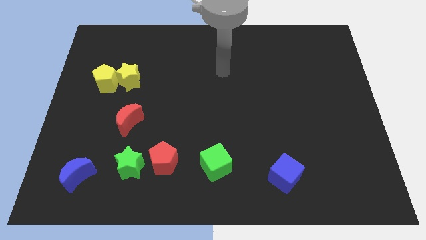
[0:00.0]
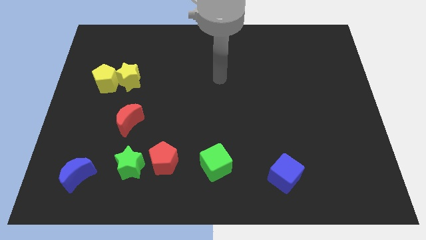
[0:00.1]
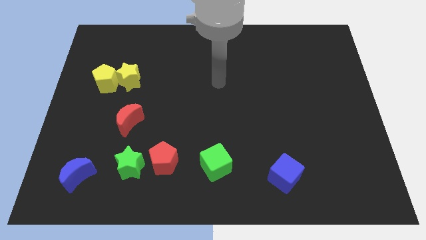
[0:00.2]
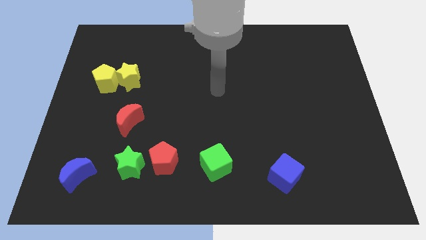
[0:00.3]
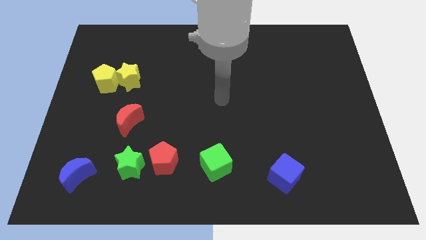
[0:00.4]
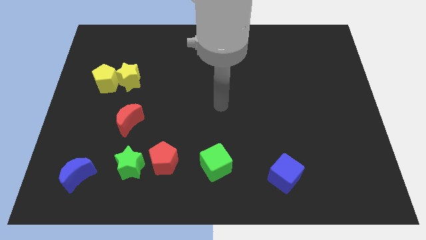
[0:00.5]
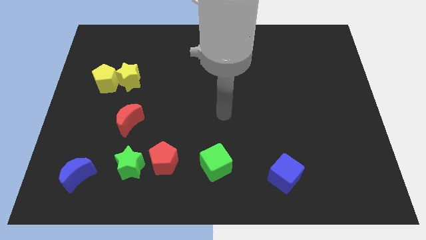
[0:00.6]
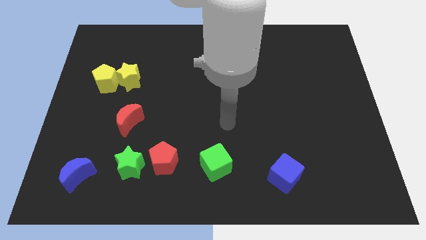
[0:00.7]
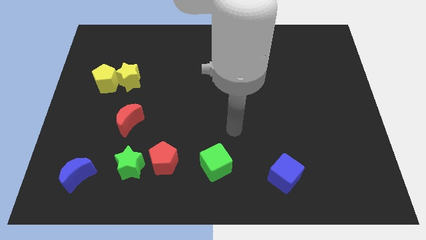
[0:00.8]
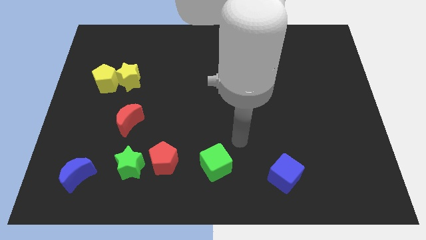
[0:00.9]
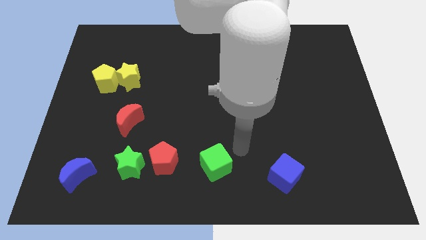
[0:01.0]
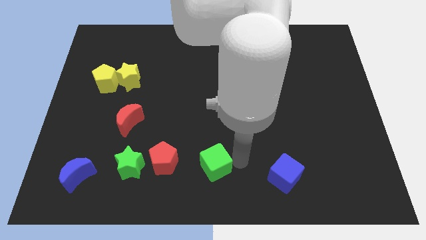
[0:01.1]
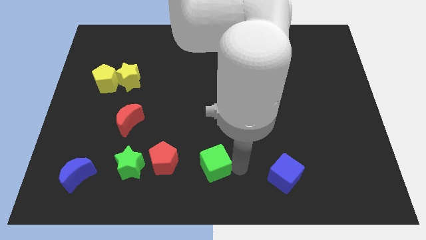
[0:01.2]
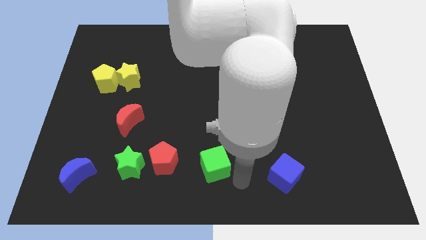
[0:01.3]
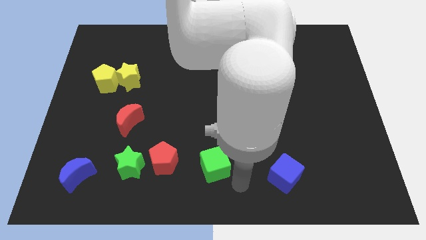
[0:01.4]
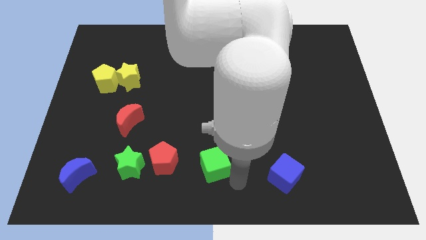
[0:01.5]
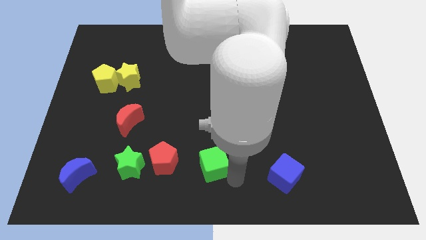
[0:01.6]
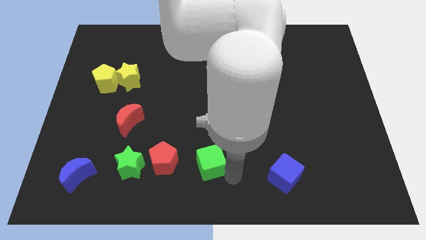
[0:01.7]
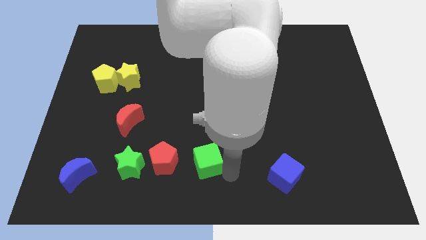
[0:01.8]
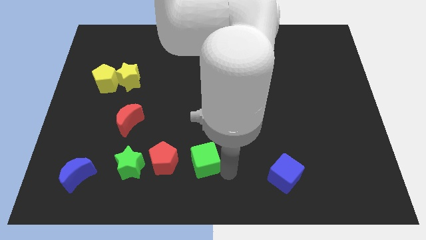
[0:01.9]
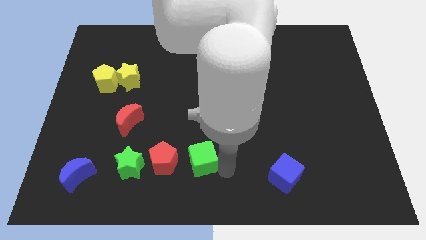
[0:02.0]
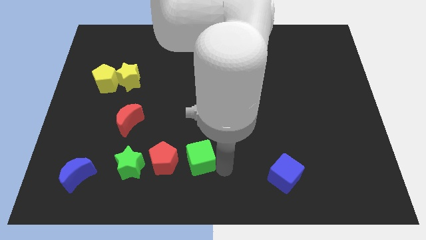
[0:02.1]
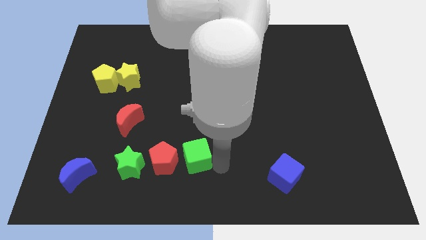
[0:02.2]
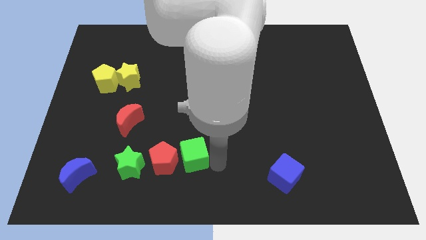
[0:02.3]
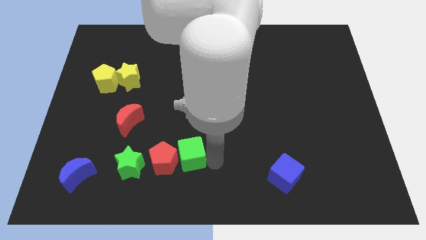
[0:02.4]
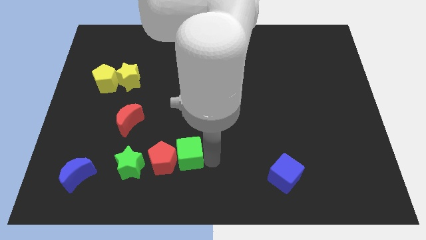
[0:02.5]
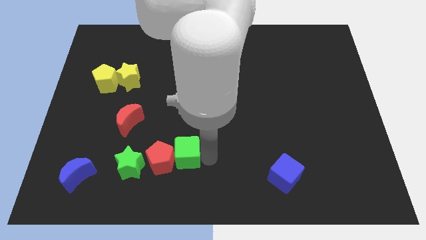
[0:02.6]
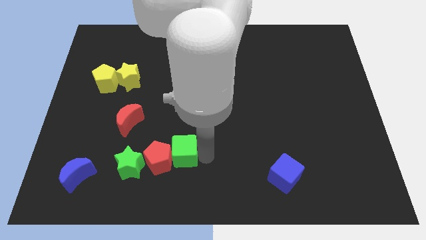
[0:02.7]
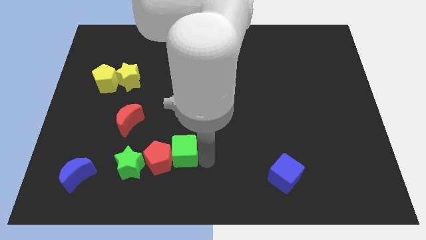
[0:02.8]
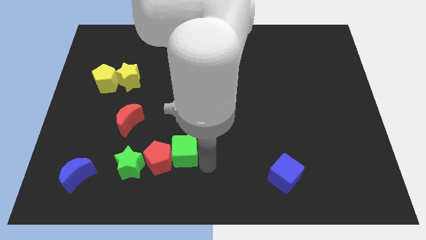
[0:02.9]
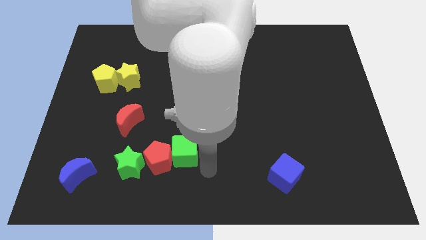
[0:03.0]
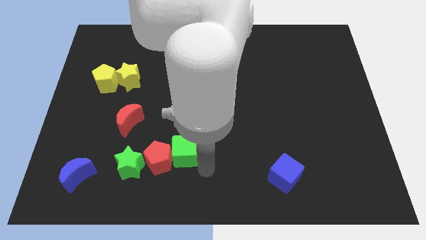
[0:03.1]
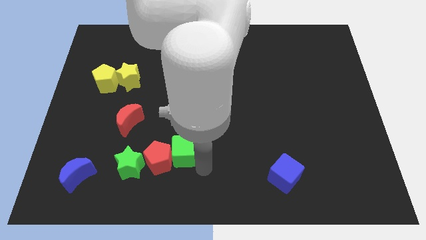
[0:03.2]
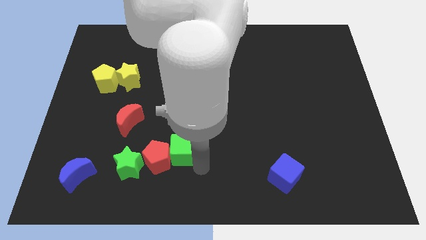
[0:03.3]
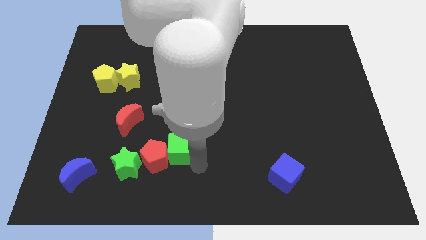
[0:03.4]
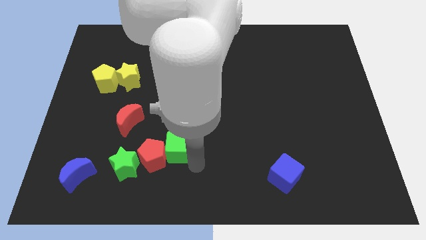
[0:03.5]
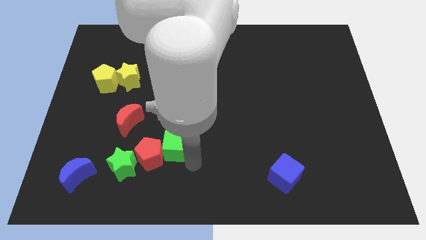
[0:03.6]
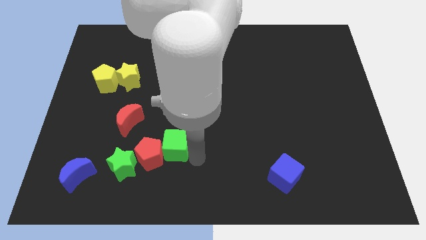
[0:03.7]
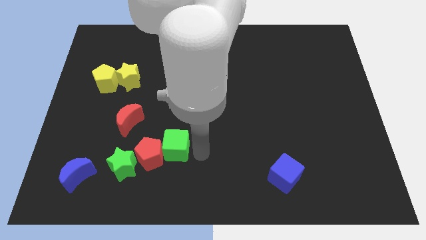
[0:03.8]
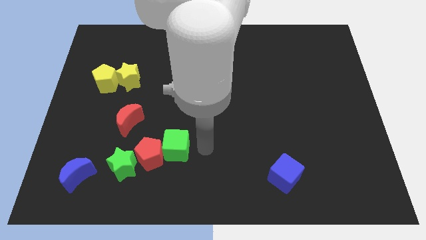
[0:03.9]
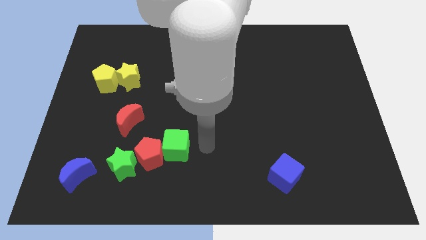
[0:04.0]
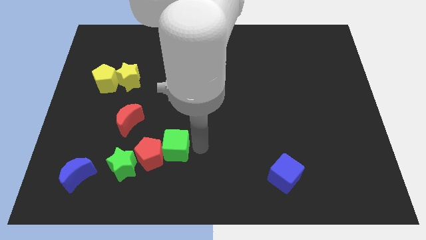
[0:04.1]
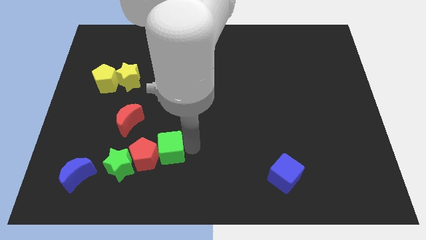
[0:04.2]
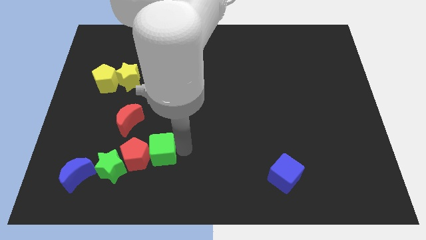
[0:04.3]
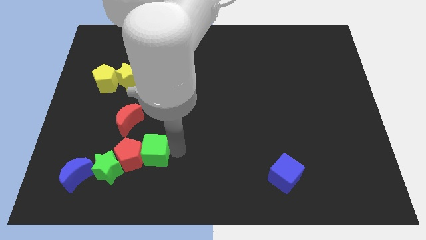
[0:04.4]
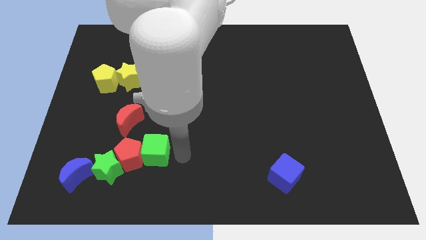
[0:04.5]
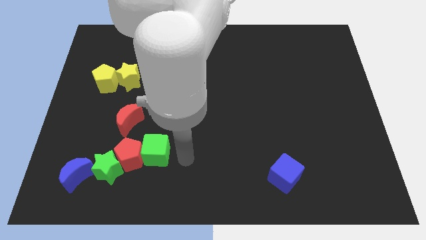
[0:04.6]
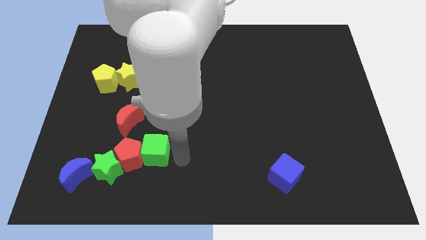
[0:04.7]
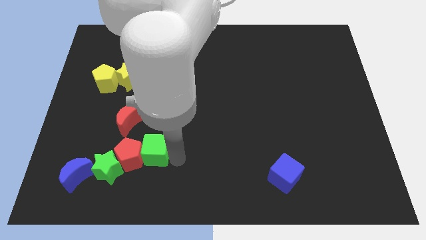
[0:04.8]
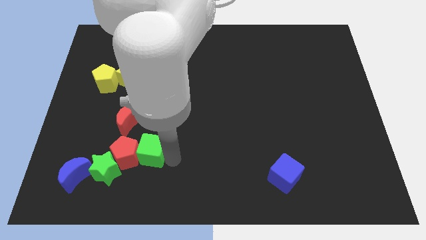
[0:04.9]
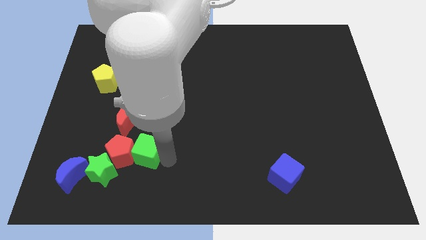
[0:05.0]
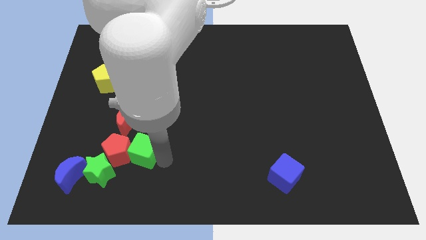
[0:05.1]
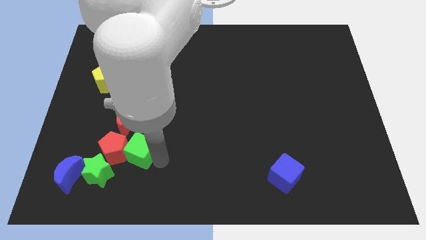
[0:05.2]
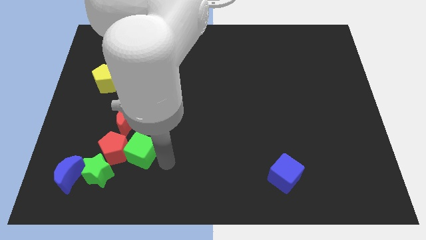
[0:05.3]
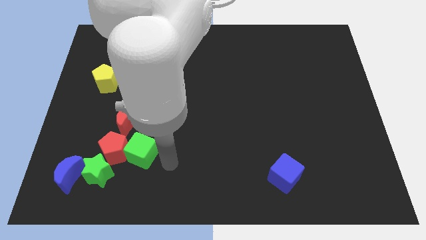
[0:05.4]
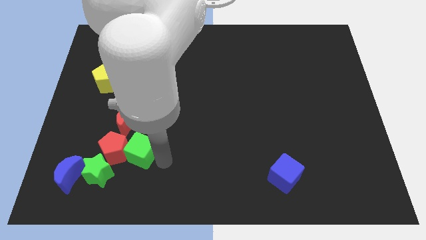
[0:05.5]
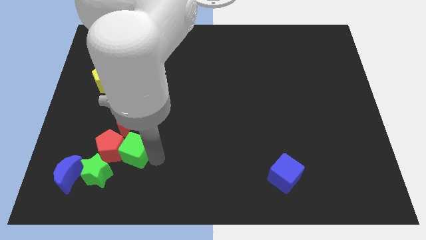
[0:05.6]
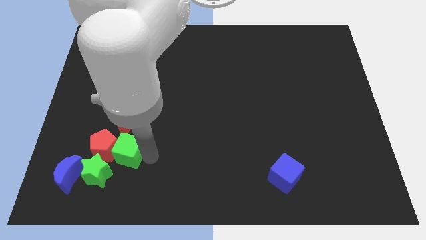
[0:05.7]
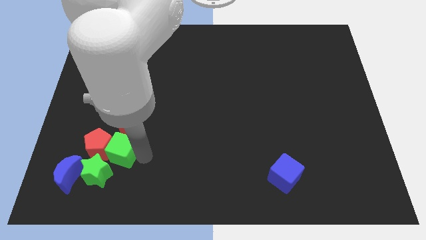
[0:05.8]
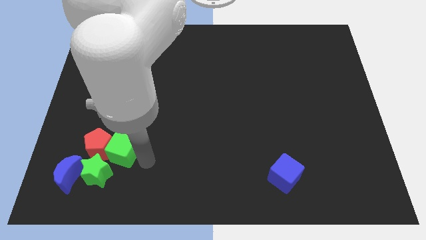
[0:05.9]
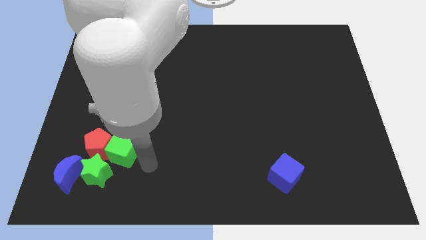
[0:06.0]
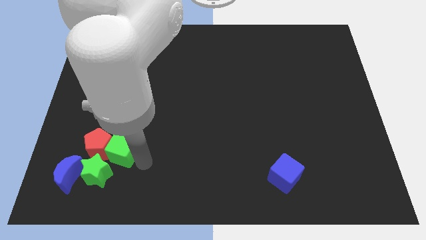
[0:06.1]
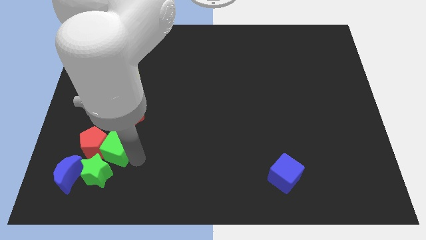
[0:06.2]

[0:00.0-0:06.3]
move the green cube to the bottom left side of the red moon

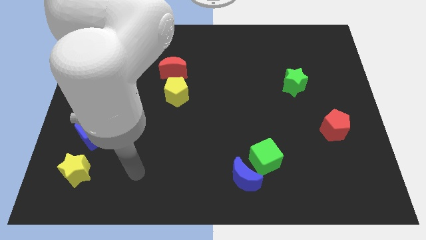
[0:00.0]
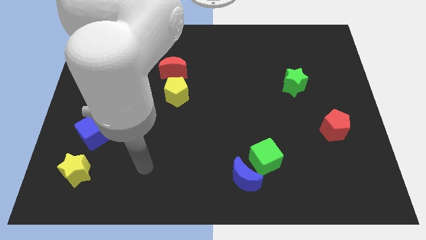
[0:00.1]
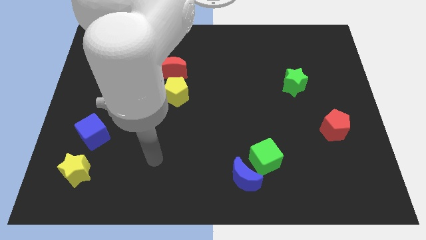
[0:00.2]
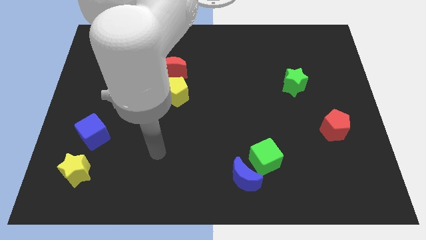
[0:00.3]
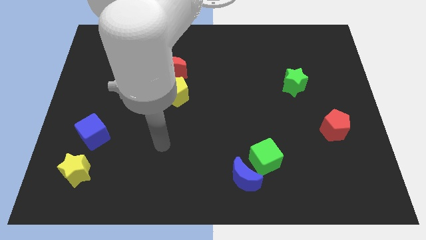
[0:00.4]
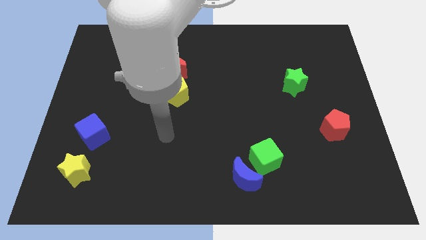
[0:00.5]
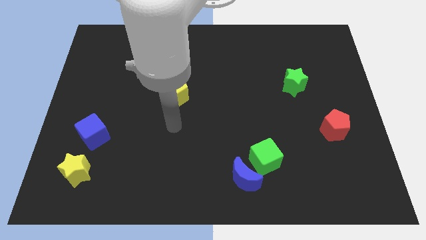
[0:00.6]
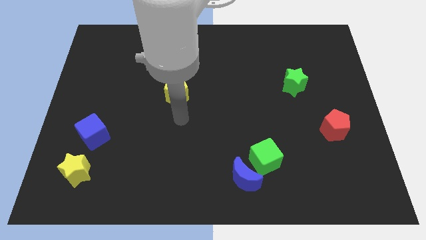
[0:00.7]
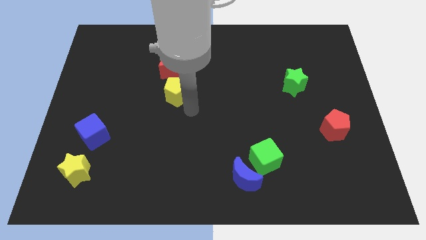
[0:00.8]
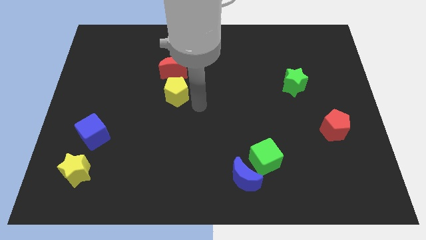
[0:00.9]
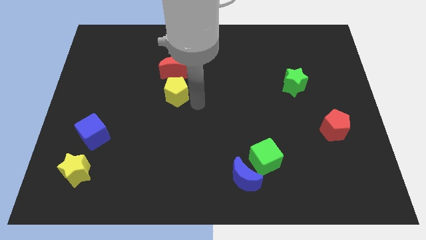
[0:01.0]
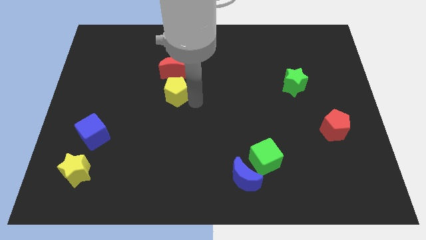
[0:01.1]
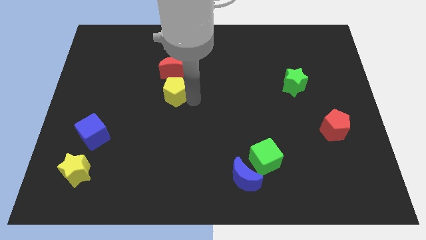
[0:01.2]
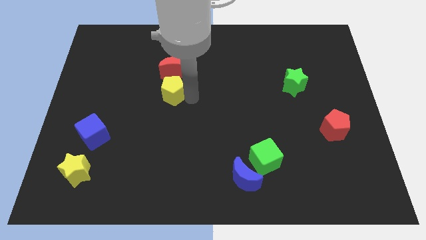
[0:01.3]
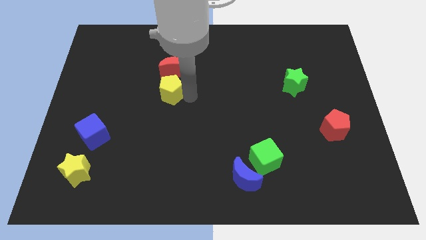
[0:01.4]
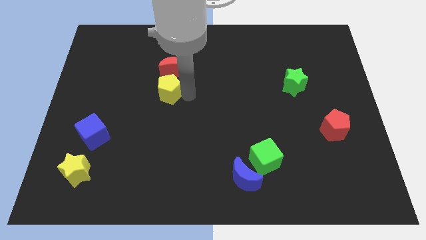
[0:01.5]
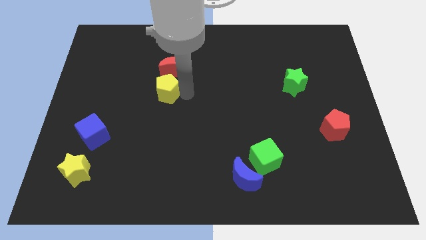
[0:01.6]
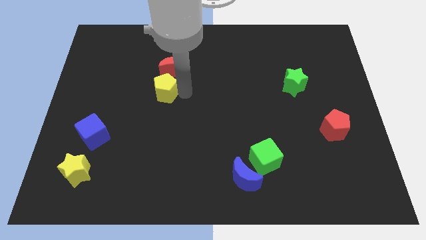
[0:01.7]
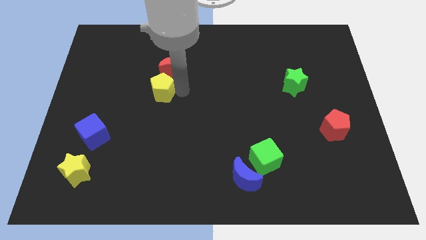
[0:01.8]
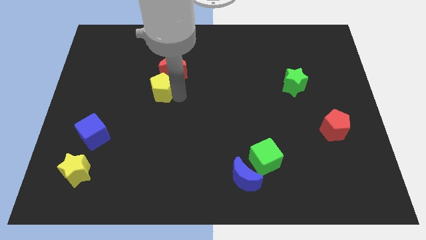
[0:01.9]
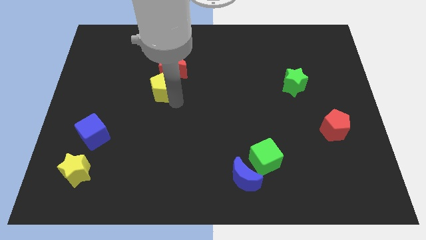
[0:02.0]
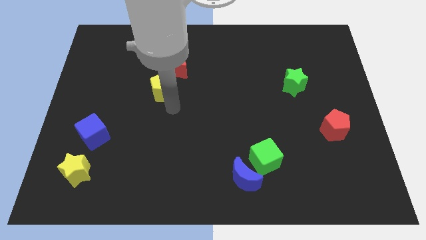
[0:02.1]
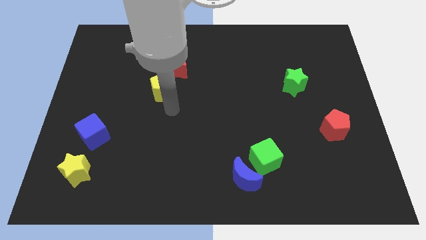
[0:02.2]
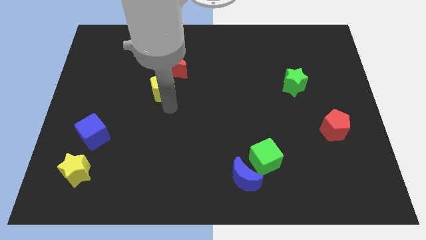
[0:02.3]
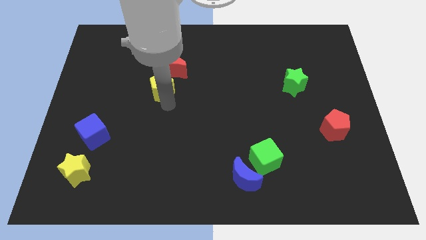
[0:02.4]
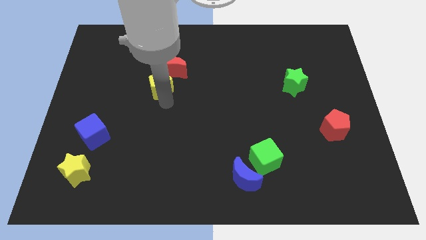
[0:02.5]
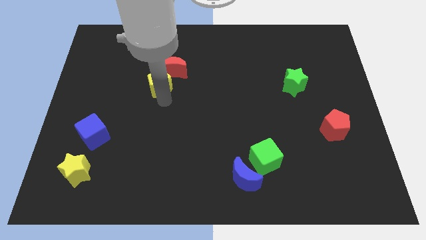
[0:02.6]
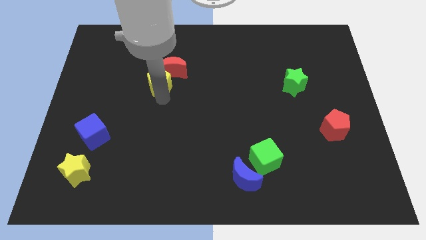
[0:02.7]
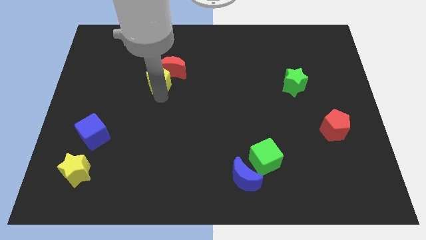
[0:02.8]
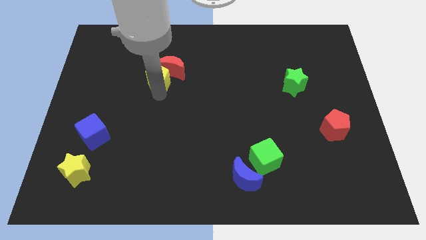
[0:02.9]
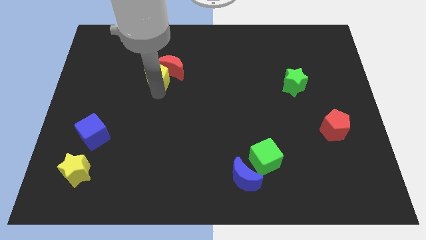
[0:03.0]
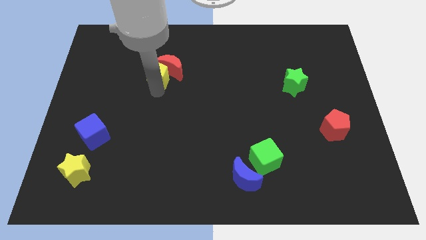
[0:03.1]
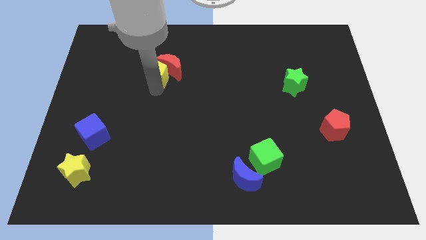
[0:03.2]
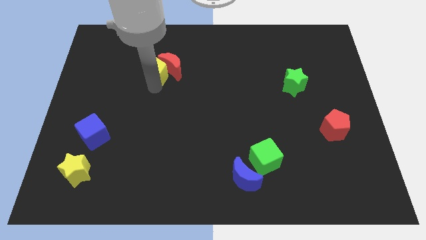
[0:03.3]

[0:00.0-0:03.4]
slide the yellow pentagon to the top left side of the red moon
